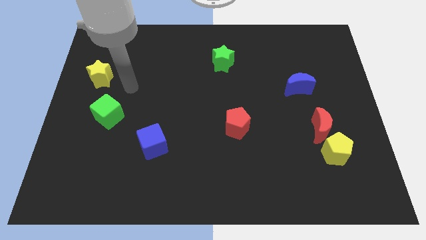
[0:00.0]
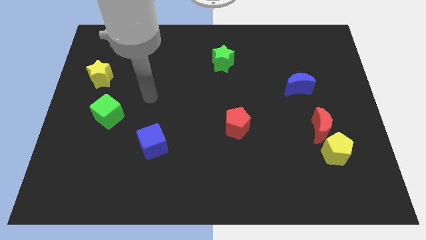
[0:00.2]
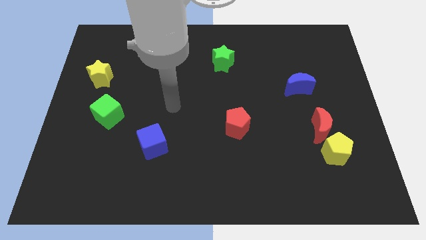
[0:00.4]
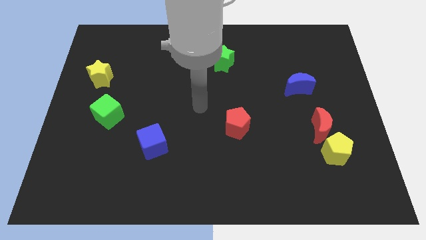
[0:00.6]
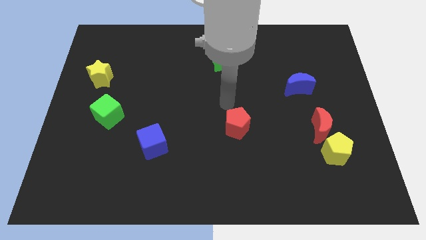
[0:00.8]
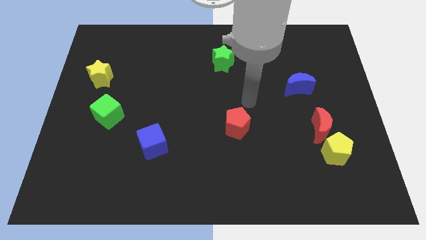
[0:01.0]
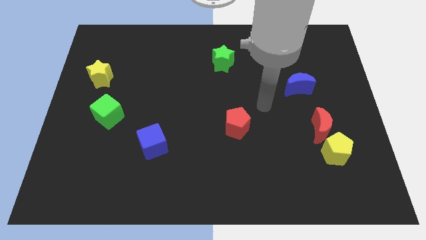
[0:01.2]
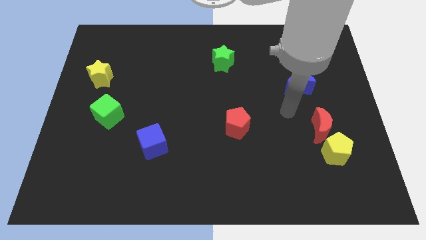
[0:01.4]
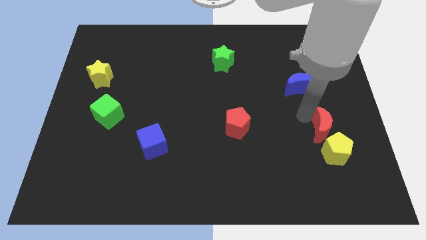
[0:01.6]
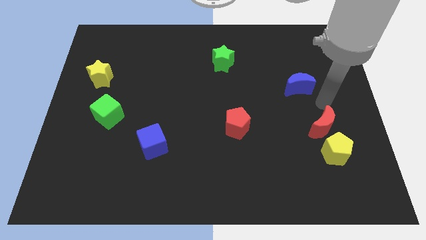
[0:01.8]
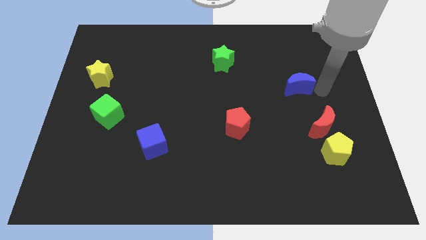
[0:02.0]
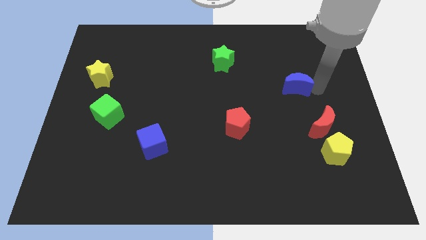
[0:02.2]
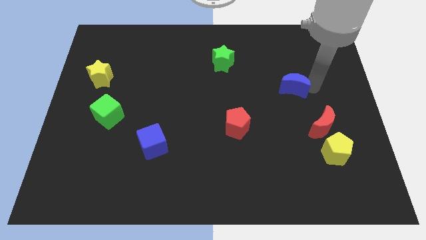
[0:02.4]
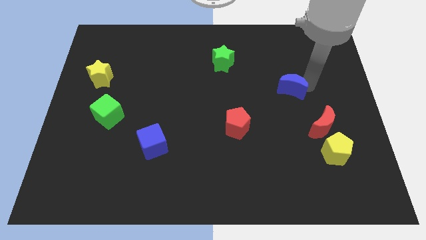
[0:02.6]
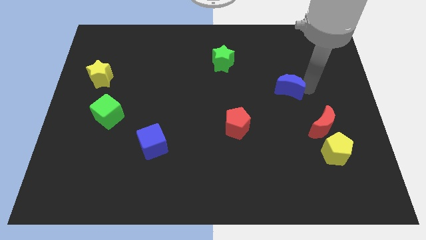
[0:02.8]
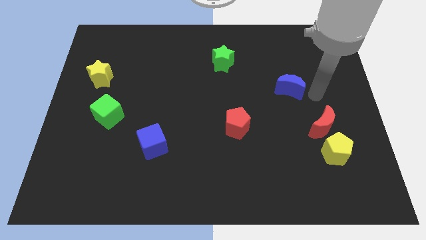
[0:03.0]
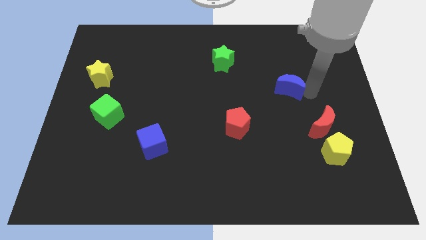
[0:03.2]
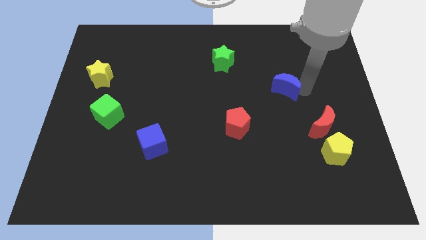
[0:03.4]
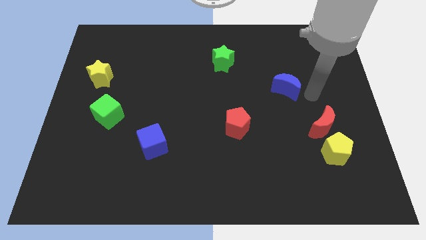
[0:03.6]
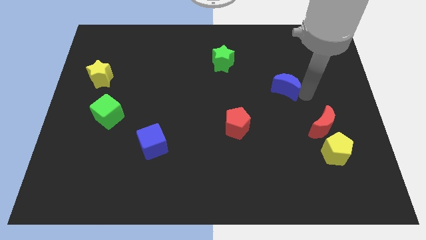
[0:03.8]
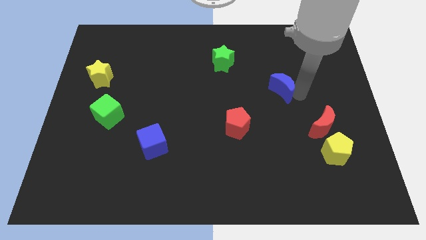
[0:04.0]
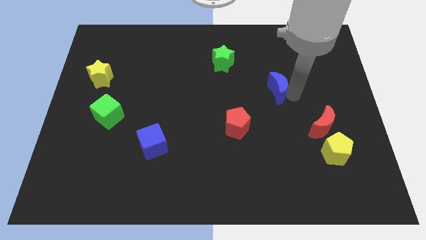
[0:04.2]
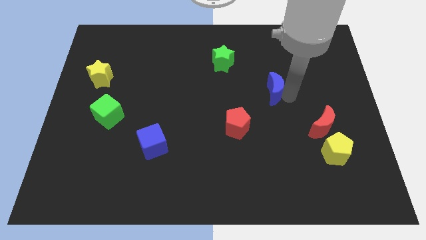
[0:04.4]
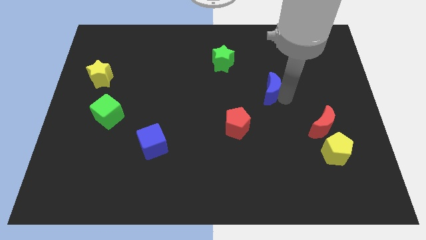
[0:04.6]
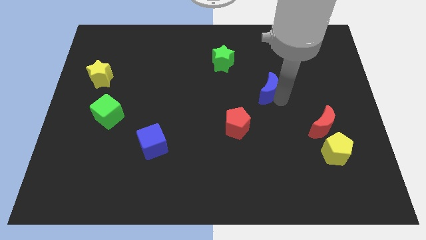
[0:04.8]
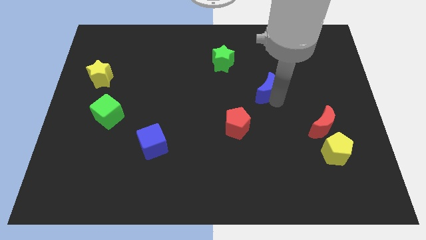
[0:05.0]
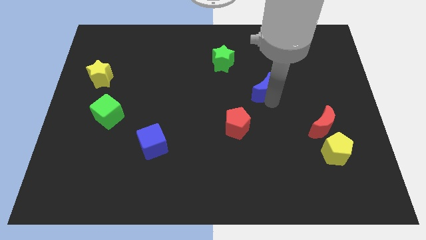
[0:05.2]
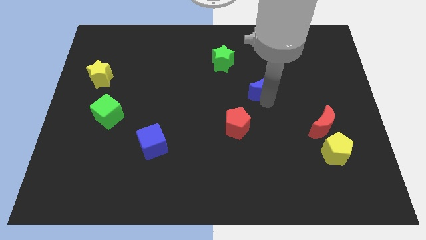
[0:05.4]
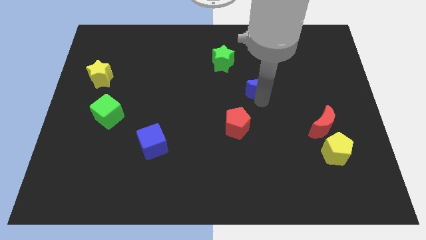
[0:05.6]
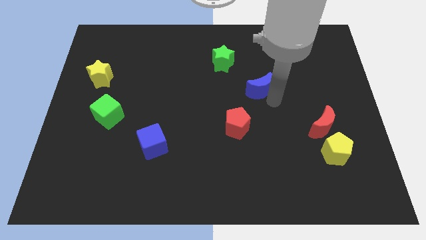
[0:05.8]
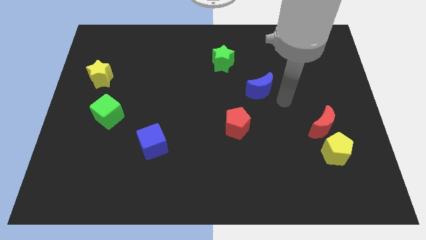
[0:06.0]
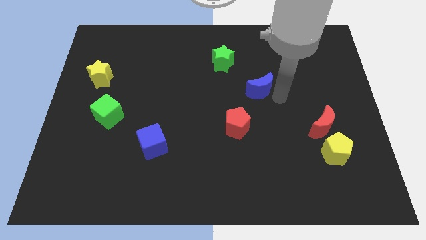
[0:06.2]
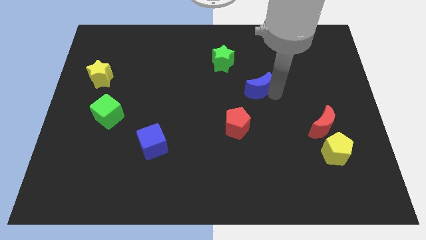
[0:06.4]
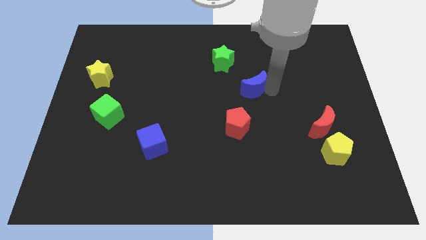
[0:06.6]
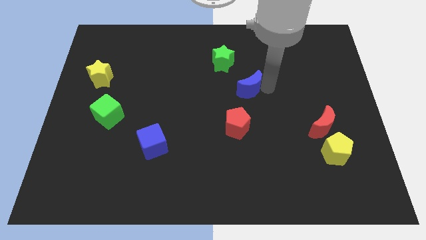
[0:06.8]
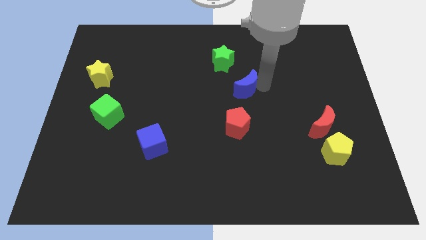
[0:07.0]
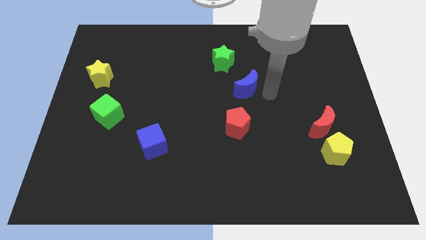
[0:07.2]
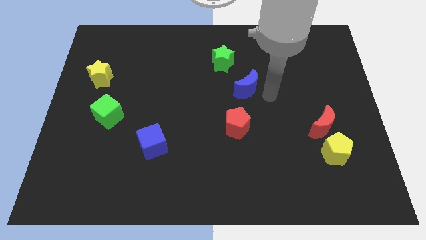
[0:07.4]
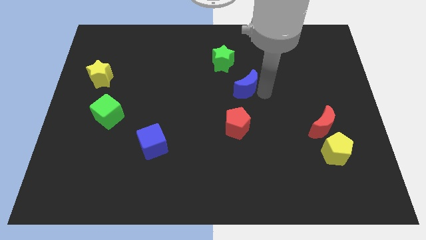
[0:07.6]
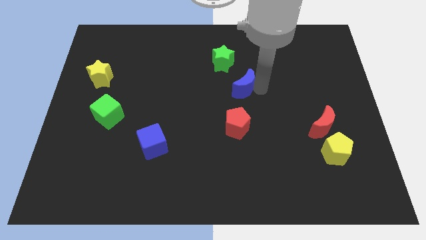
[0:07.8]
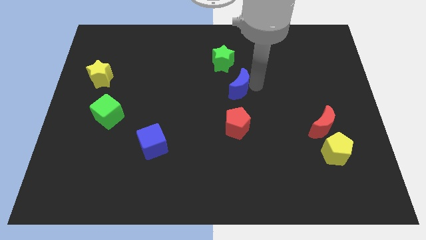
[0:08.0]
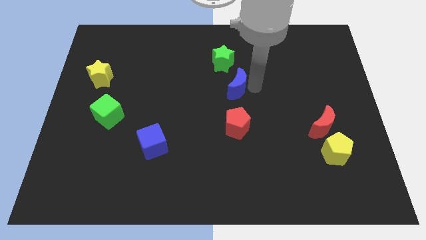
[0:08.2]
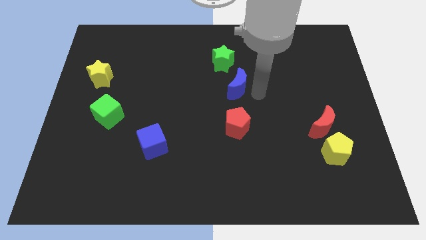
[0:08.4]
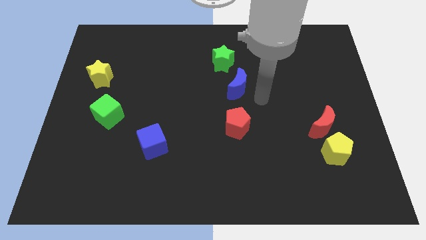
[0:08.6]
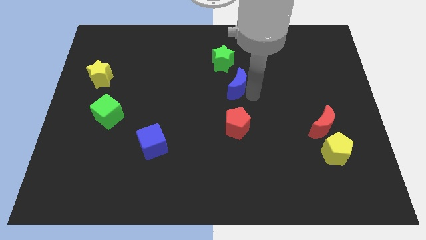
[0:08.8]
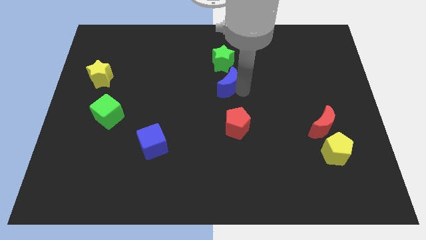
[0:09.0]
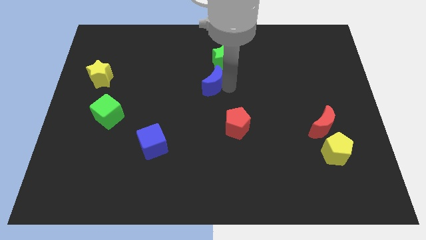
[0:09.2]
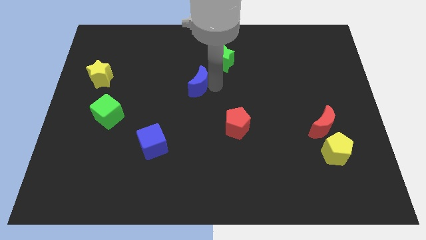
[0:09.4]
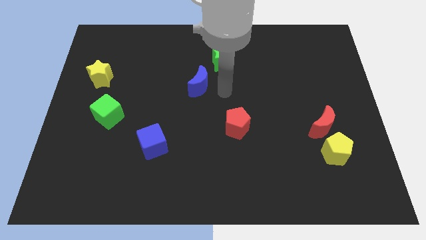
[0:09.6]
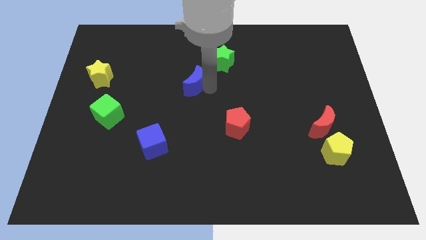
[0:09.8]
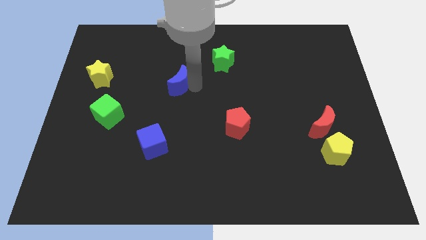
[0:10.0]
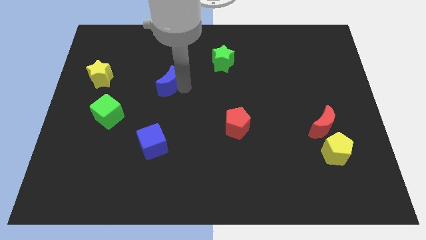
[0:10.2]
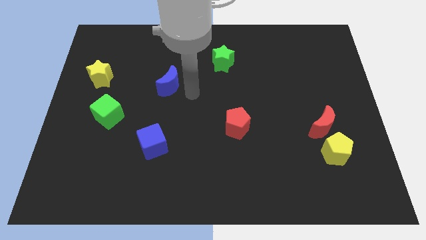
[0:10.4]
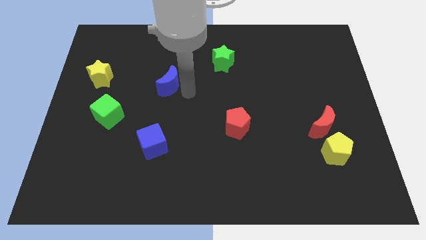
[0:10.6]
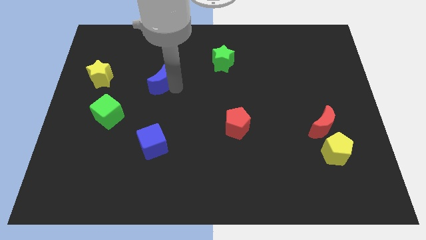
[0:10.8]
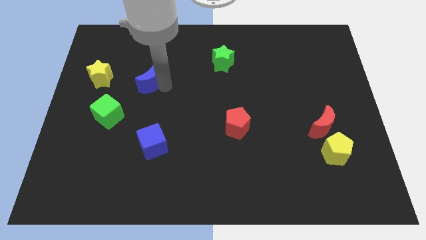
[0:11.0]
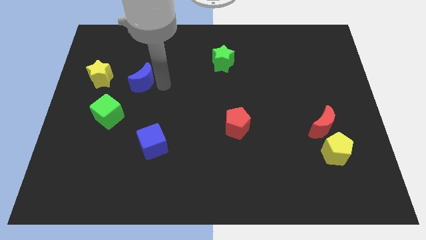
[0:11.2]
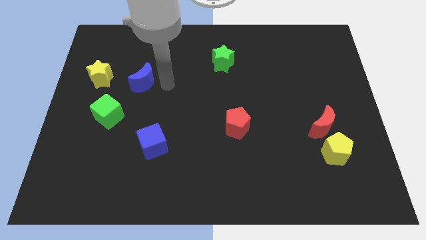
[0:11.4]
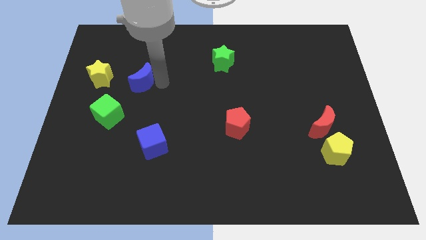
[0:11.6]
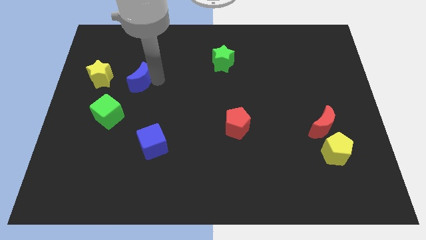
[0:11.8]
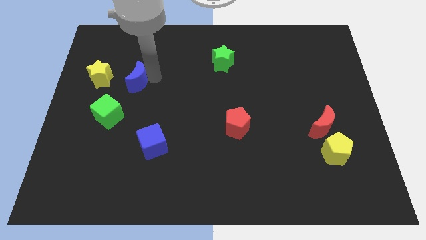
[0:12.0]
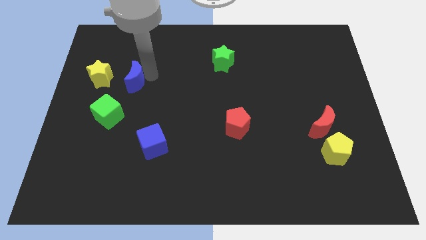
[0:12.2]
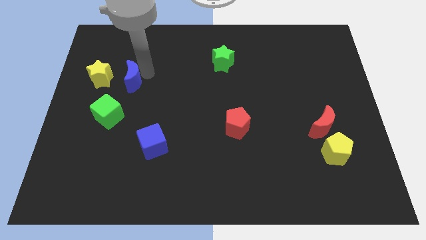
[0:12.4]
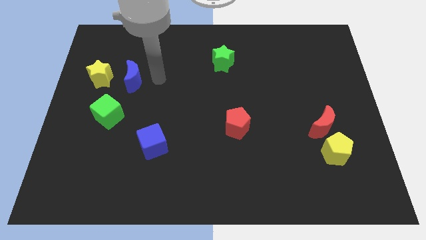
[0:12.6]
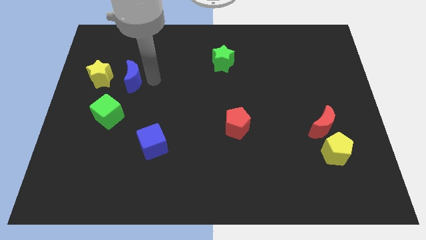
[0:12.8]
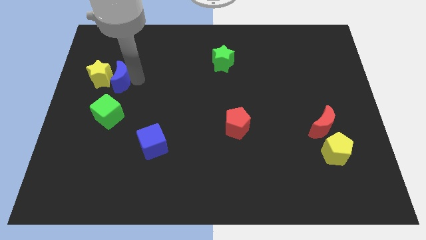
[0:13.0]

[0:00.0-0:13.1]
slide the blue moon to the yellow star

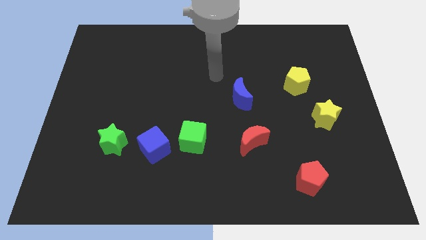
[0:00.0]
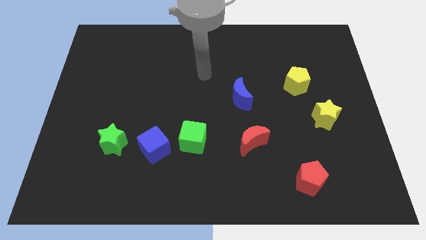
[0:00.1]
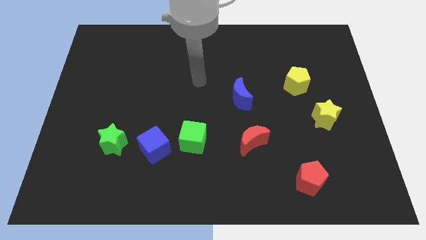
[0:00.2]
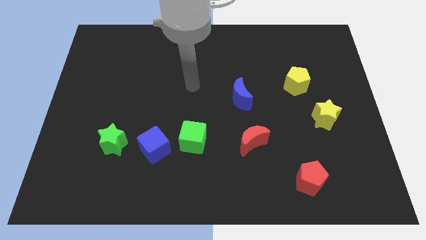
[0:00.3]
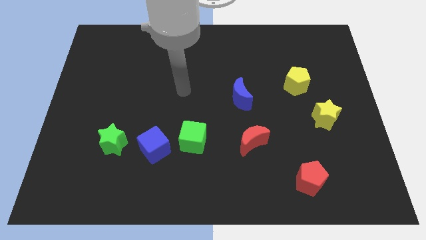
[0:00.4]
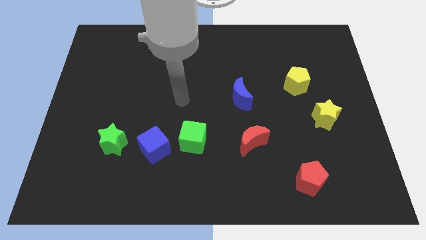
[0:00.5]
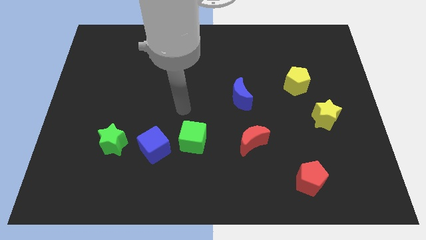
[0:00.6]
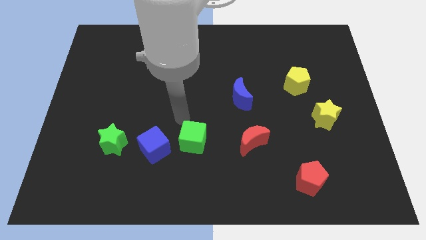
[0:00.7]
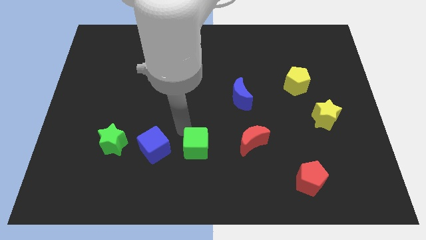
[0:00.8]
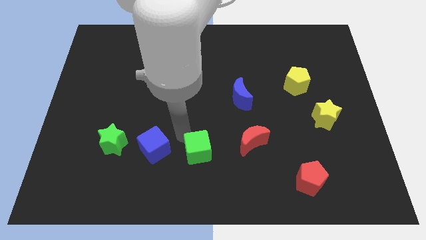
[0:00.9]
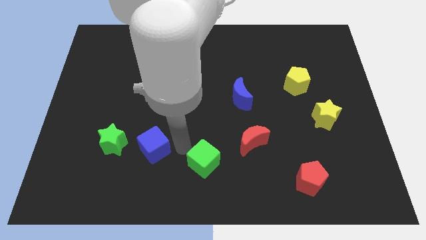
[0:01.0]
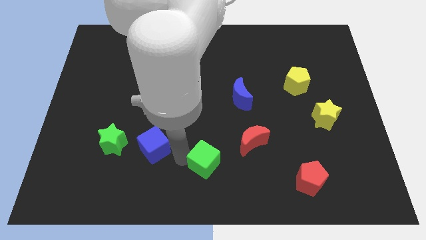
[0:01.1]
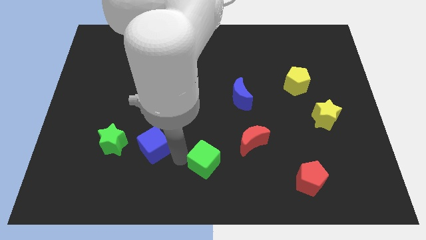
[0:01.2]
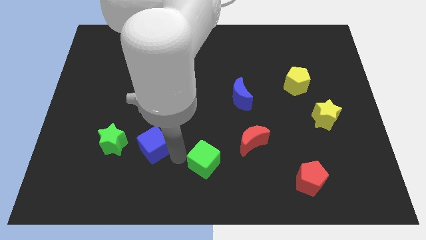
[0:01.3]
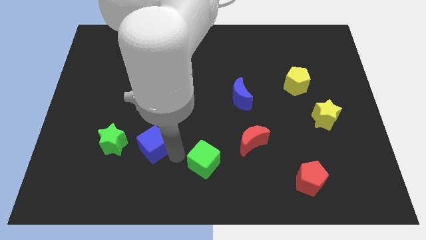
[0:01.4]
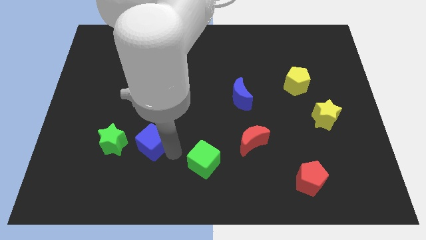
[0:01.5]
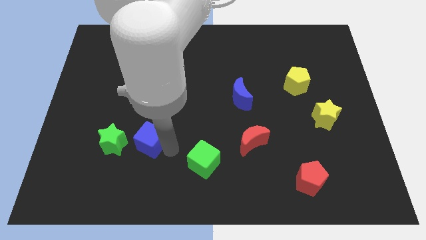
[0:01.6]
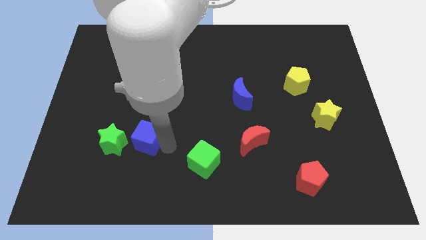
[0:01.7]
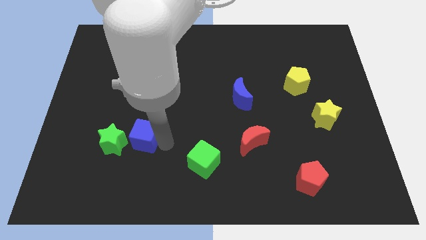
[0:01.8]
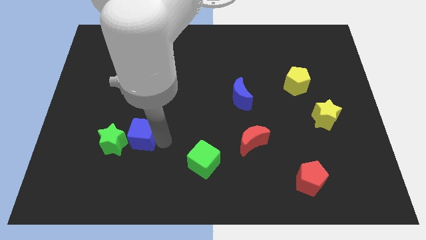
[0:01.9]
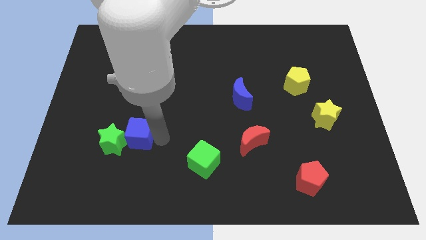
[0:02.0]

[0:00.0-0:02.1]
move the blue cube close to the green star
